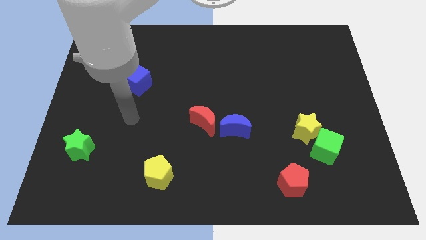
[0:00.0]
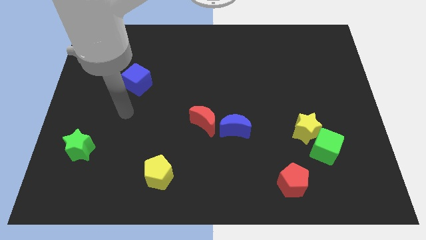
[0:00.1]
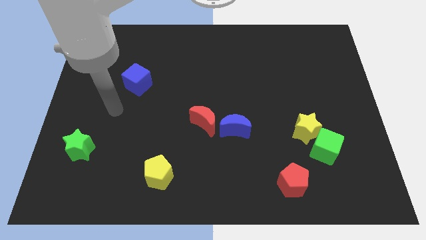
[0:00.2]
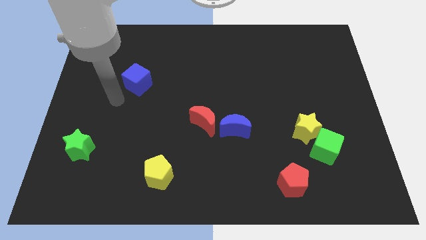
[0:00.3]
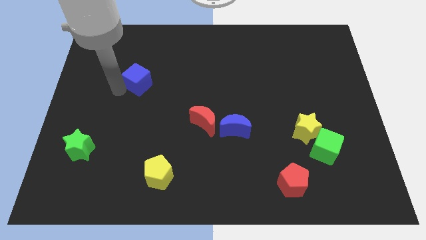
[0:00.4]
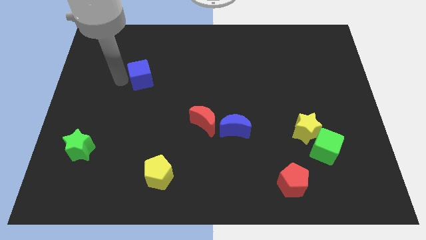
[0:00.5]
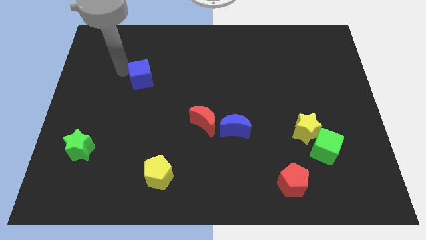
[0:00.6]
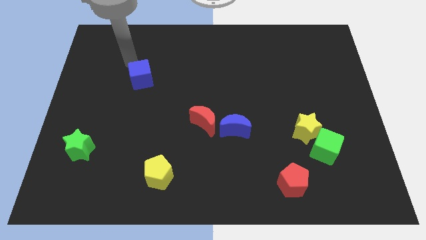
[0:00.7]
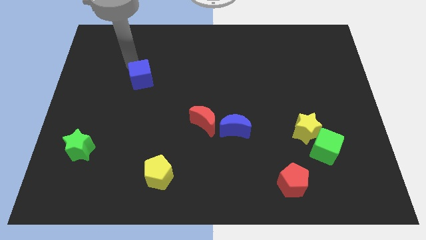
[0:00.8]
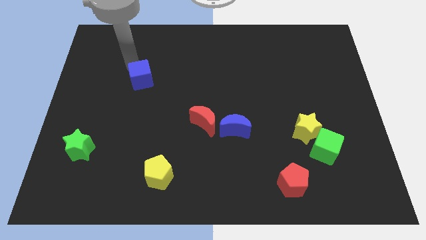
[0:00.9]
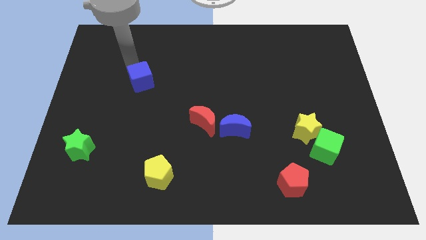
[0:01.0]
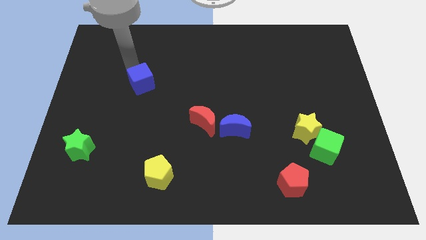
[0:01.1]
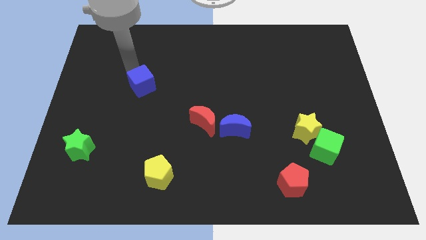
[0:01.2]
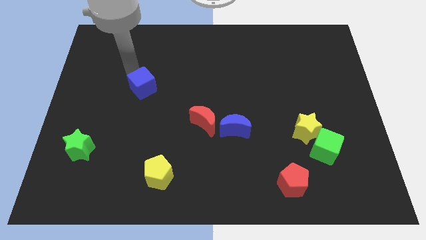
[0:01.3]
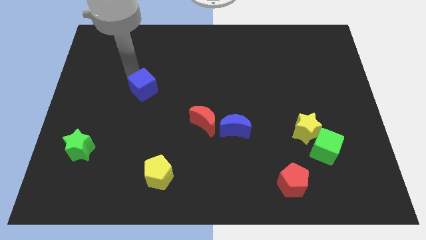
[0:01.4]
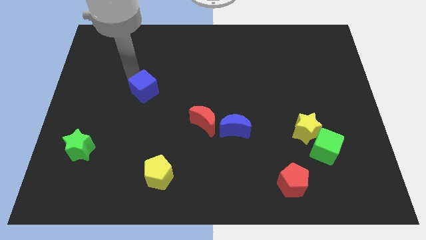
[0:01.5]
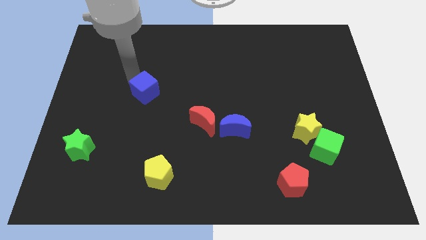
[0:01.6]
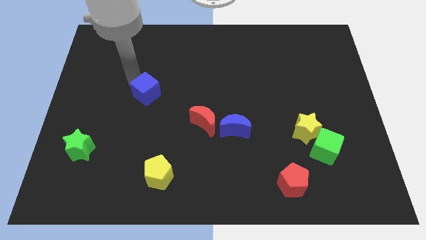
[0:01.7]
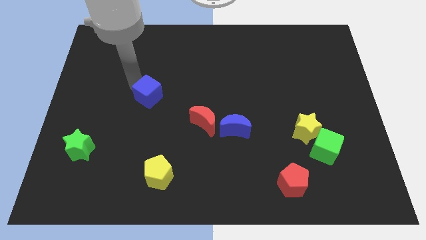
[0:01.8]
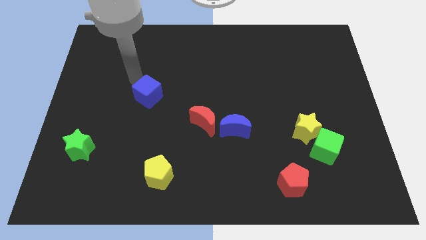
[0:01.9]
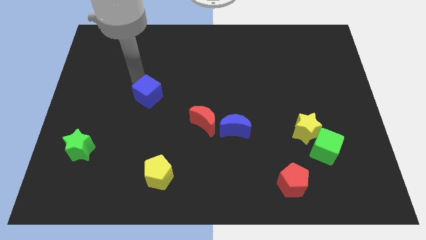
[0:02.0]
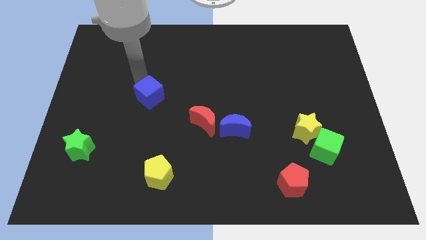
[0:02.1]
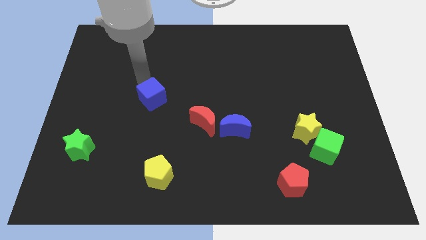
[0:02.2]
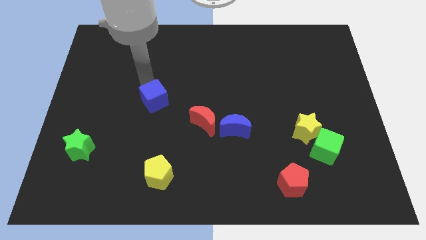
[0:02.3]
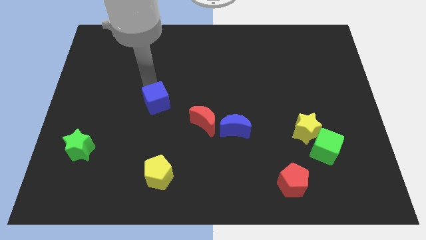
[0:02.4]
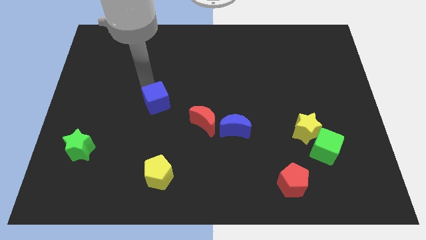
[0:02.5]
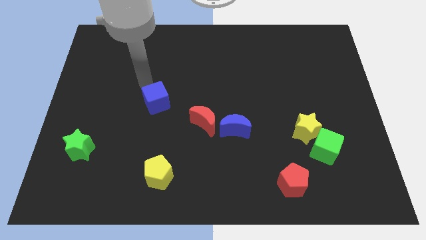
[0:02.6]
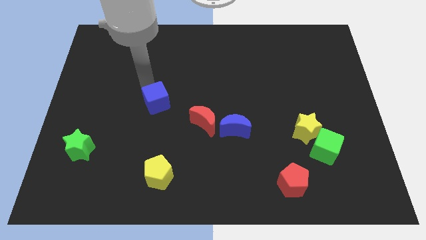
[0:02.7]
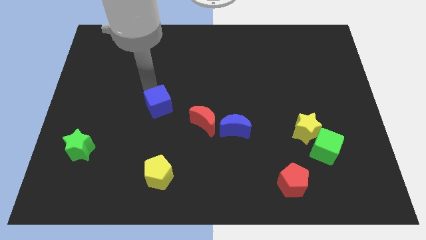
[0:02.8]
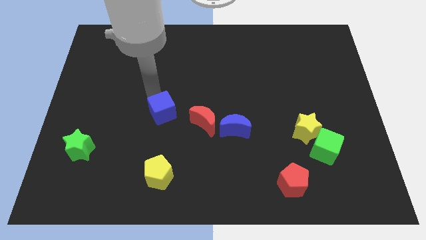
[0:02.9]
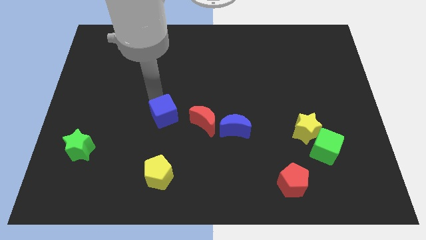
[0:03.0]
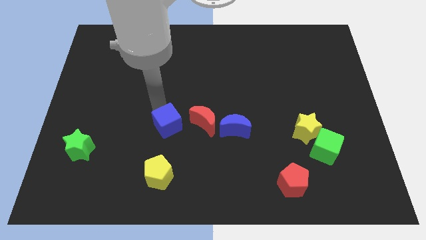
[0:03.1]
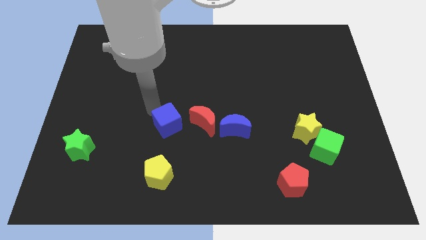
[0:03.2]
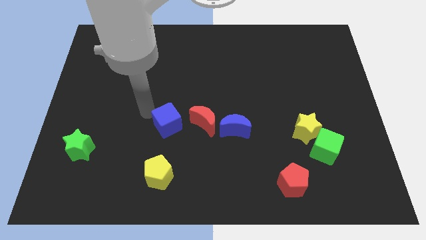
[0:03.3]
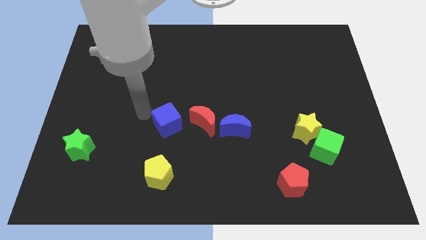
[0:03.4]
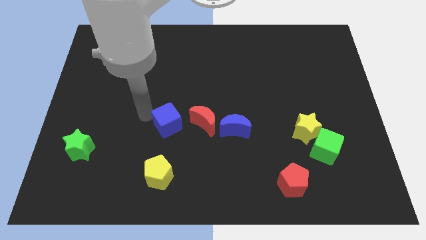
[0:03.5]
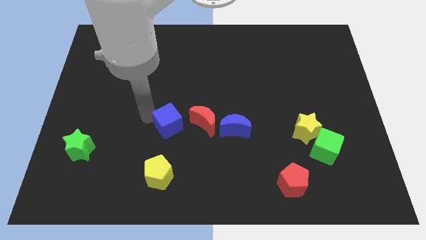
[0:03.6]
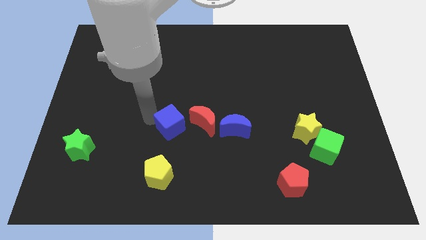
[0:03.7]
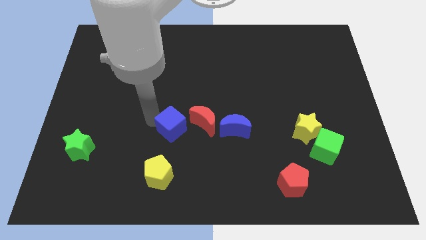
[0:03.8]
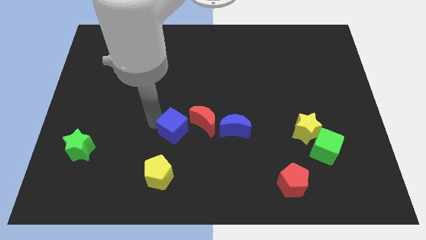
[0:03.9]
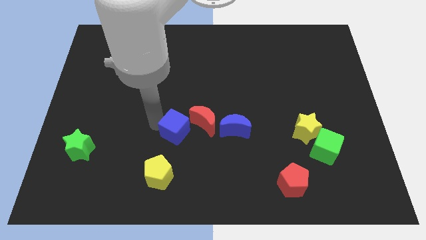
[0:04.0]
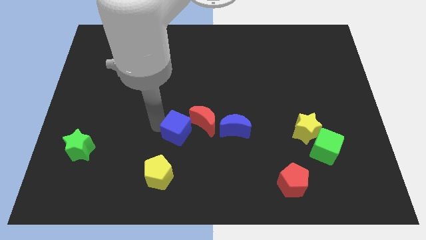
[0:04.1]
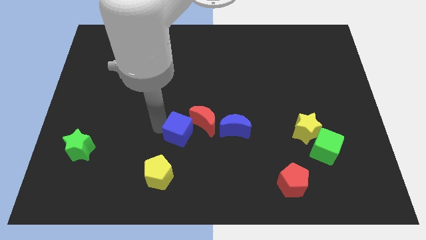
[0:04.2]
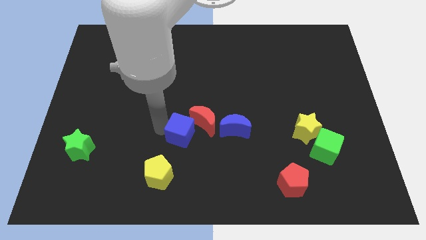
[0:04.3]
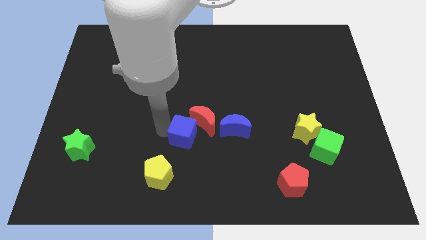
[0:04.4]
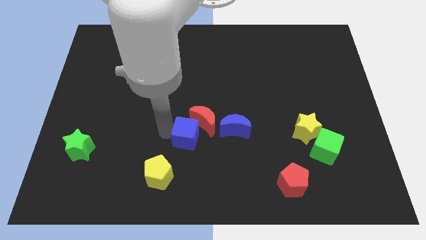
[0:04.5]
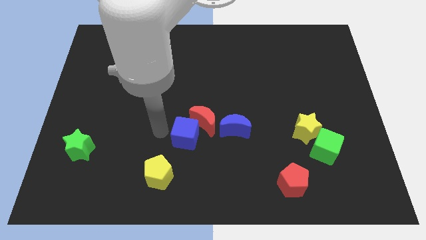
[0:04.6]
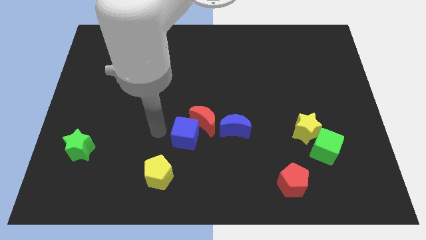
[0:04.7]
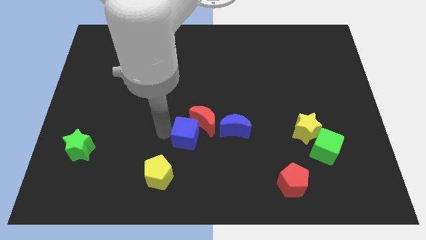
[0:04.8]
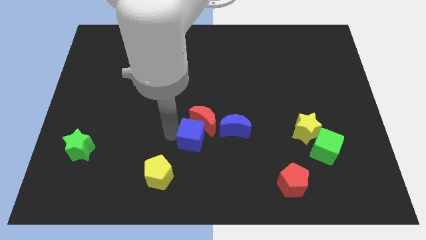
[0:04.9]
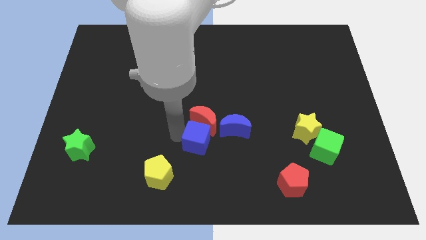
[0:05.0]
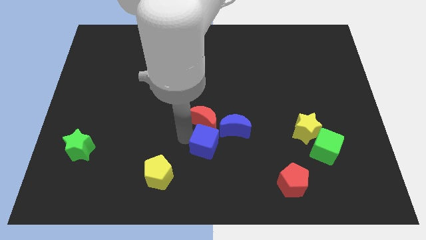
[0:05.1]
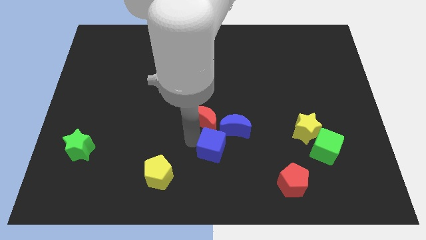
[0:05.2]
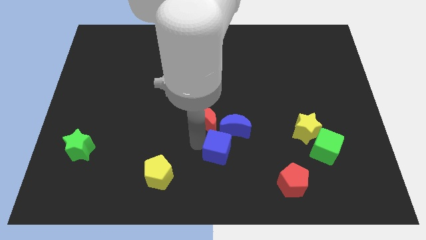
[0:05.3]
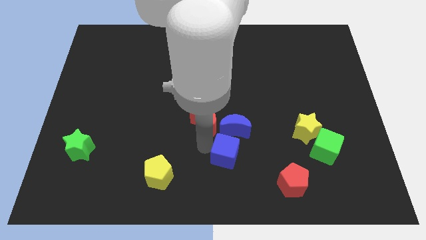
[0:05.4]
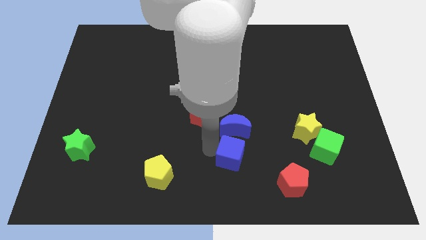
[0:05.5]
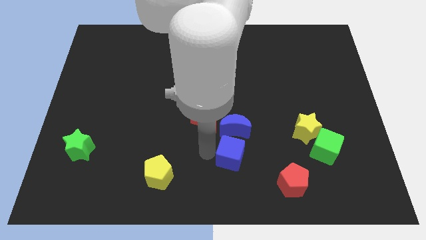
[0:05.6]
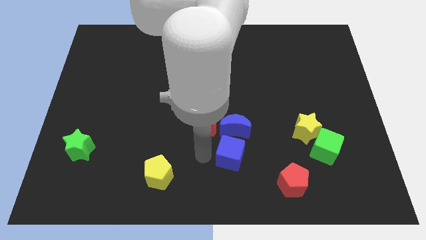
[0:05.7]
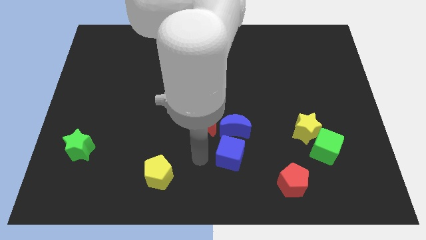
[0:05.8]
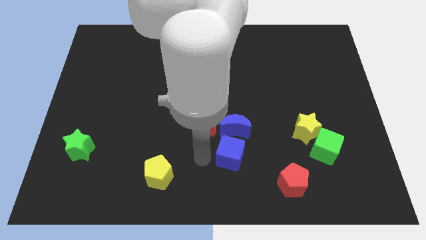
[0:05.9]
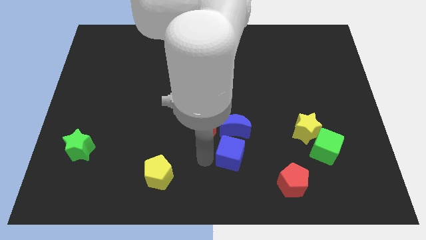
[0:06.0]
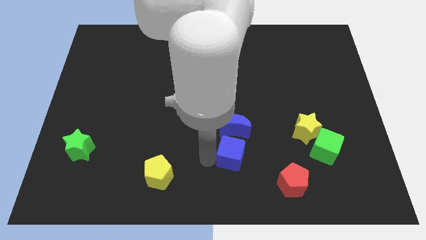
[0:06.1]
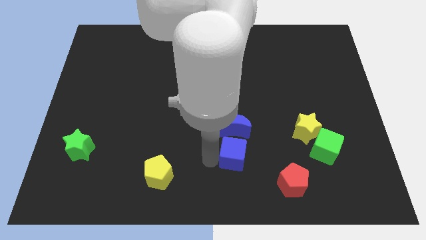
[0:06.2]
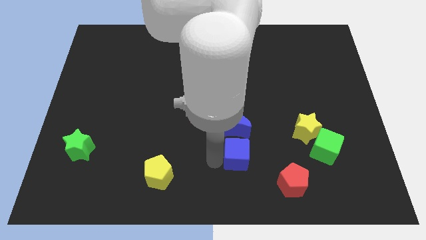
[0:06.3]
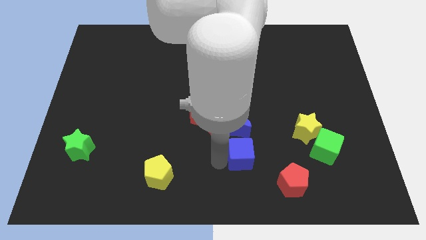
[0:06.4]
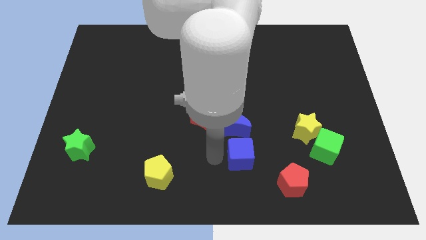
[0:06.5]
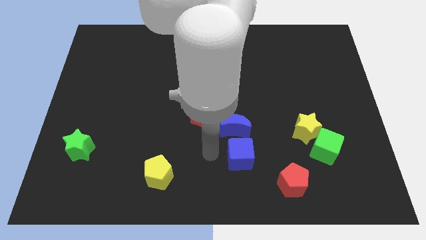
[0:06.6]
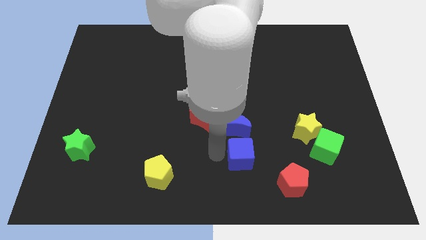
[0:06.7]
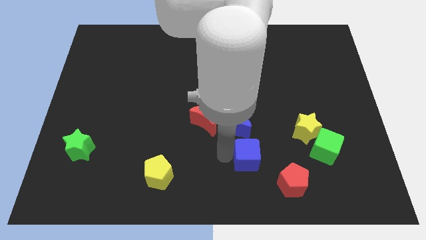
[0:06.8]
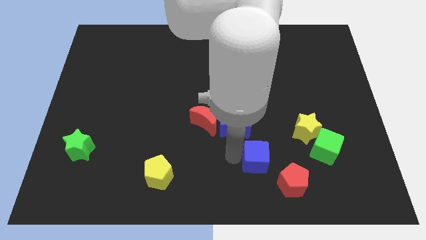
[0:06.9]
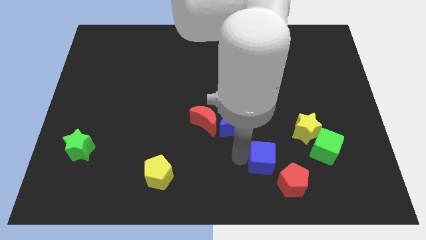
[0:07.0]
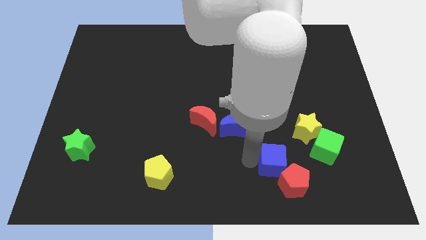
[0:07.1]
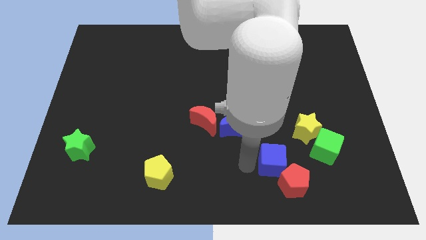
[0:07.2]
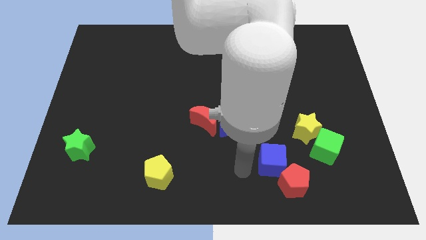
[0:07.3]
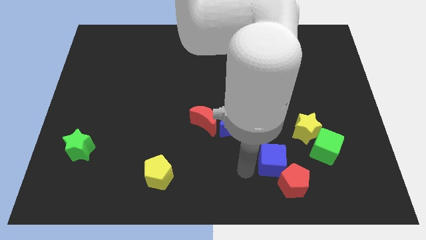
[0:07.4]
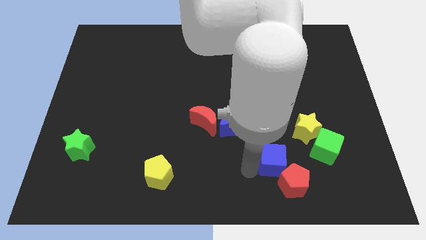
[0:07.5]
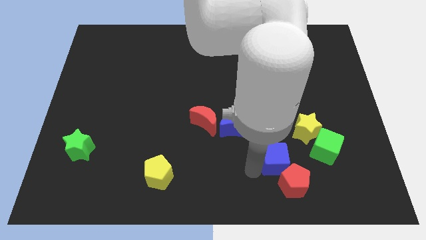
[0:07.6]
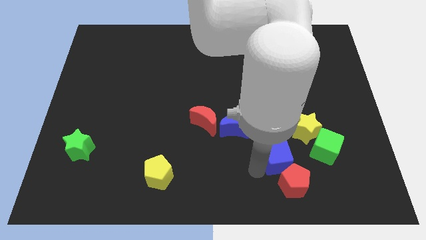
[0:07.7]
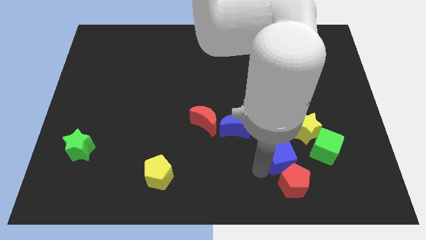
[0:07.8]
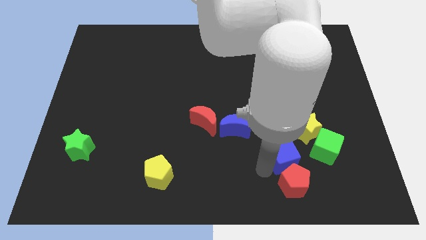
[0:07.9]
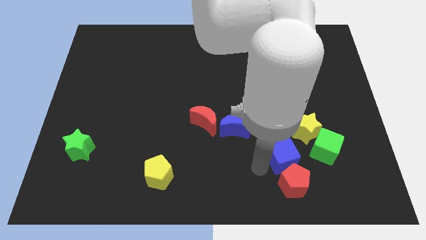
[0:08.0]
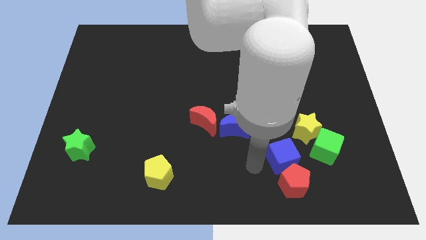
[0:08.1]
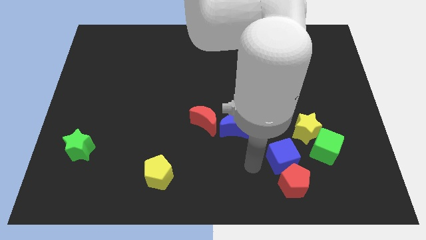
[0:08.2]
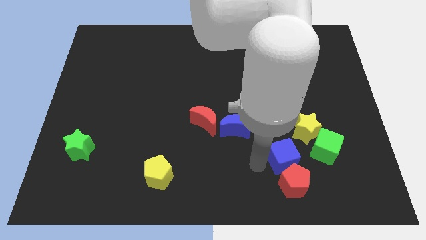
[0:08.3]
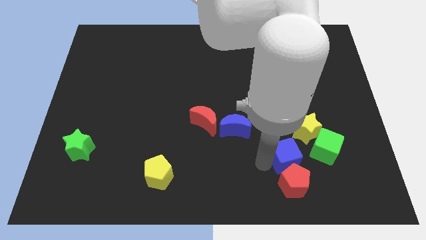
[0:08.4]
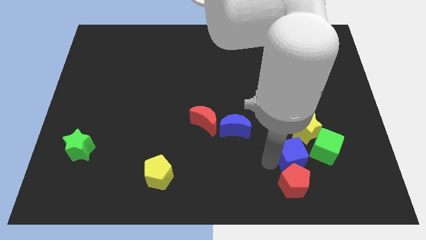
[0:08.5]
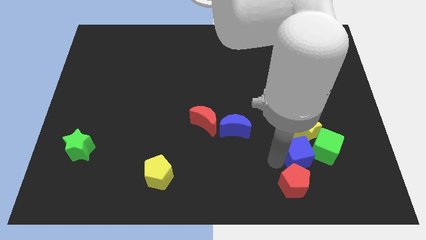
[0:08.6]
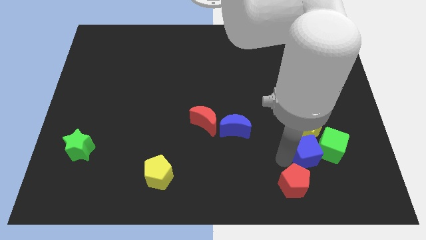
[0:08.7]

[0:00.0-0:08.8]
move the blue cube close to the green cube
